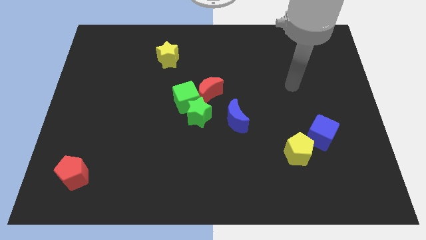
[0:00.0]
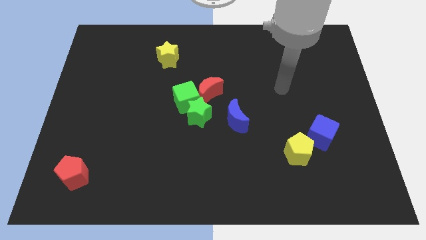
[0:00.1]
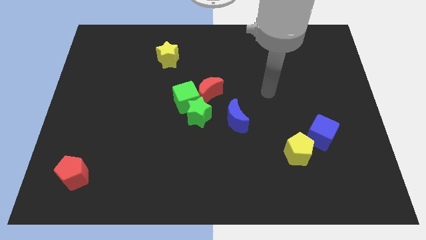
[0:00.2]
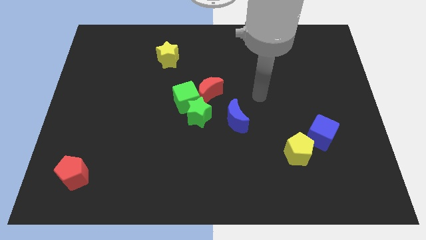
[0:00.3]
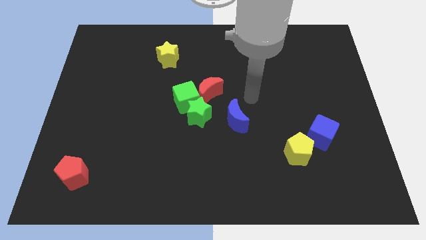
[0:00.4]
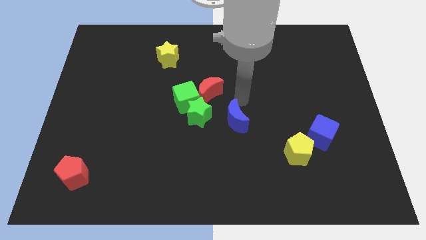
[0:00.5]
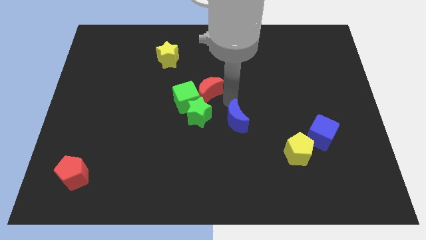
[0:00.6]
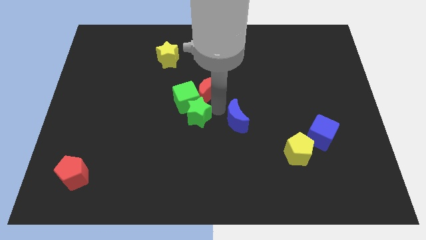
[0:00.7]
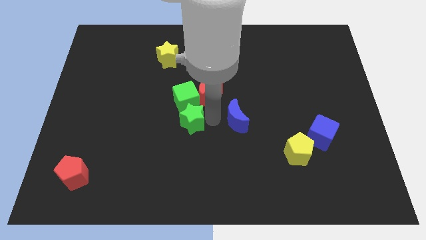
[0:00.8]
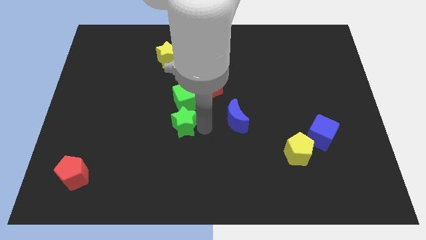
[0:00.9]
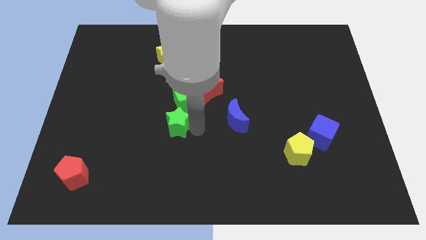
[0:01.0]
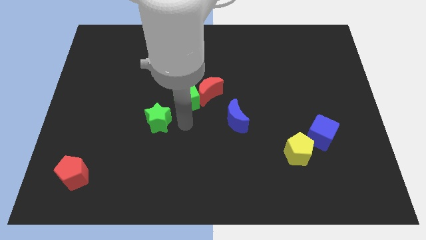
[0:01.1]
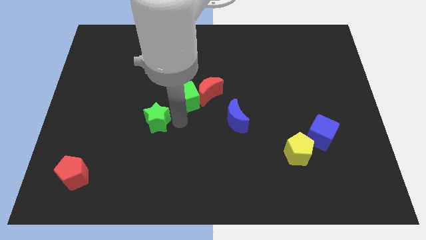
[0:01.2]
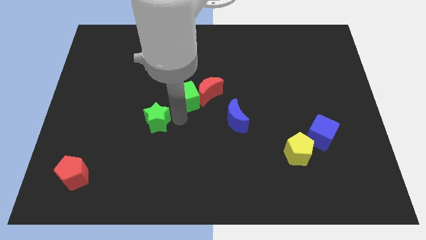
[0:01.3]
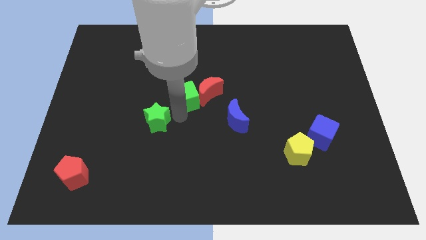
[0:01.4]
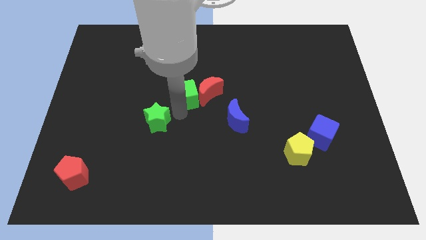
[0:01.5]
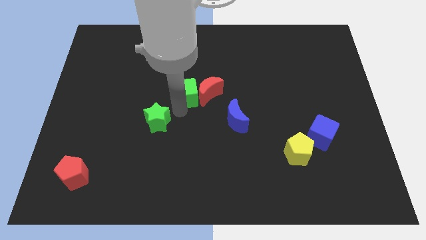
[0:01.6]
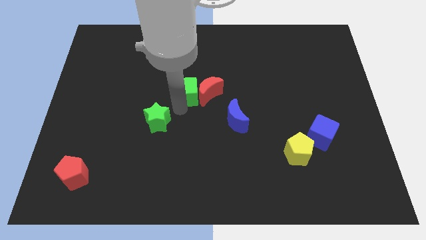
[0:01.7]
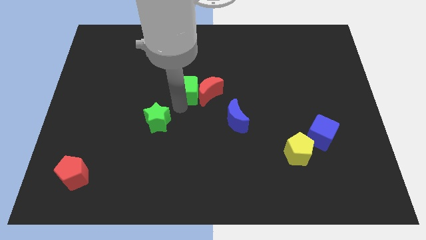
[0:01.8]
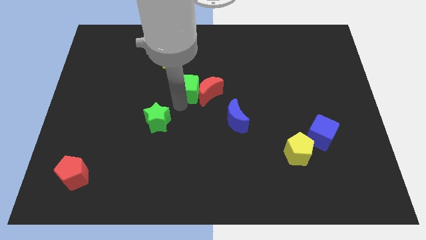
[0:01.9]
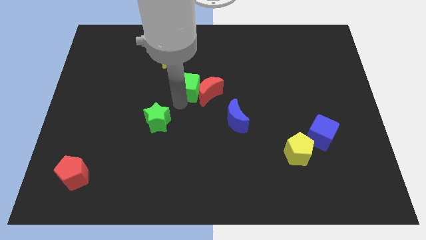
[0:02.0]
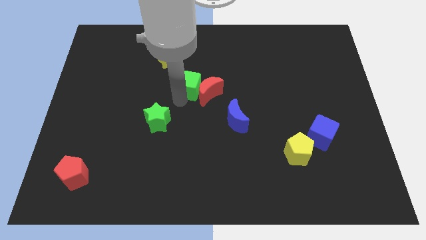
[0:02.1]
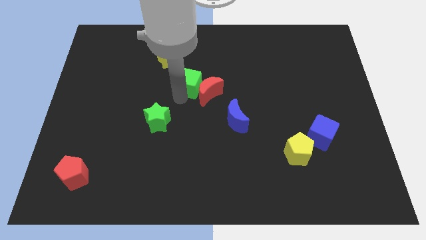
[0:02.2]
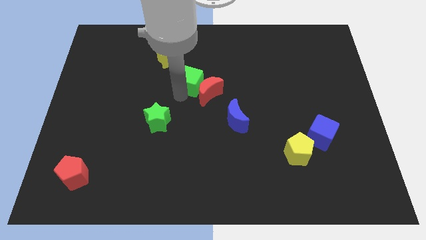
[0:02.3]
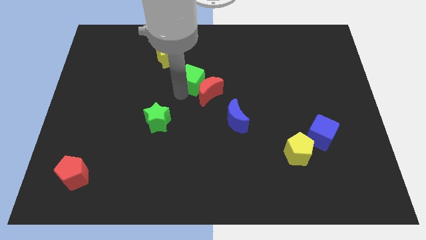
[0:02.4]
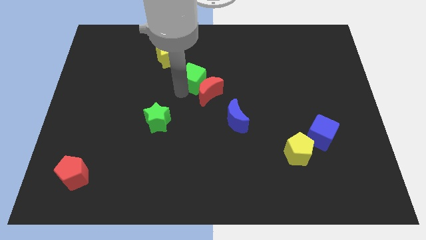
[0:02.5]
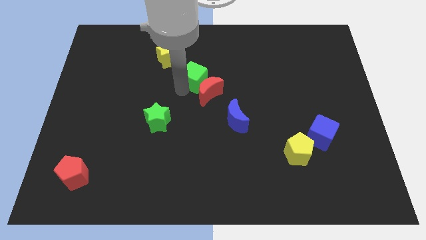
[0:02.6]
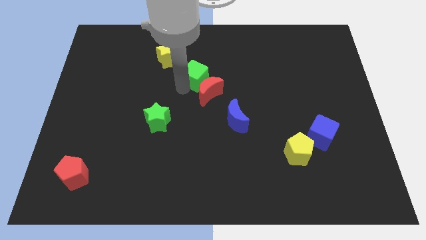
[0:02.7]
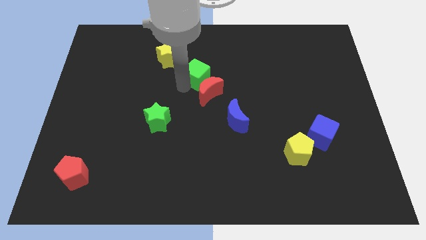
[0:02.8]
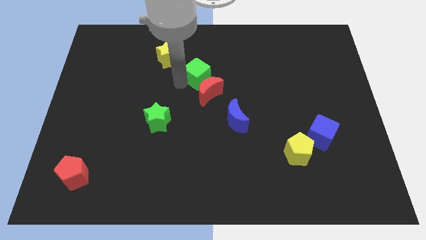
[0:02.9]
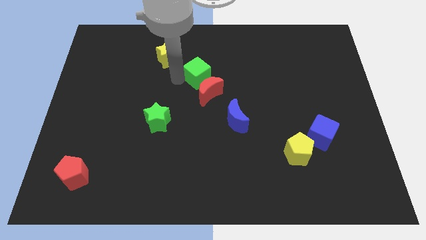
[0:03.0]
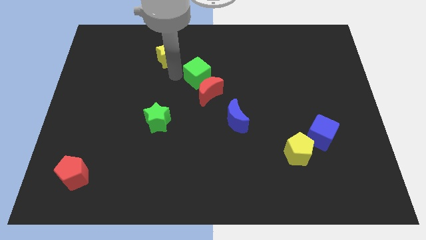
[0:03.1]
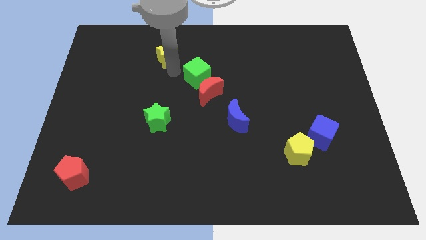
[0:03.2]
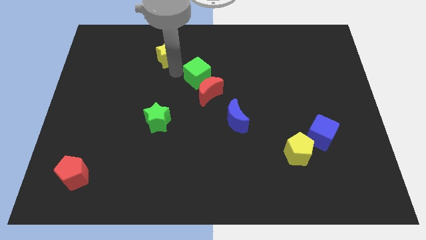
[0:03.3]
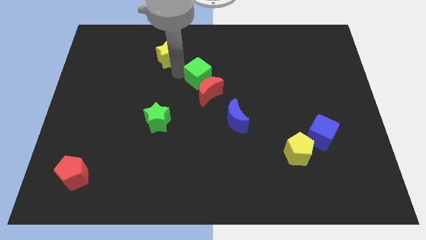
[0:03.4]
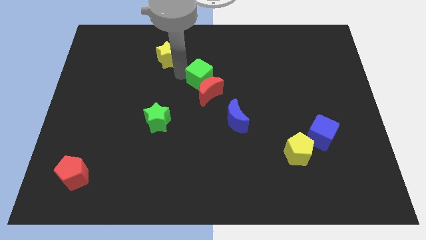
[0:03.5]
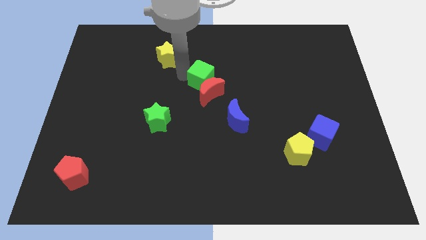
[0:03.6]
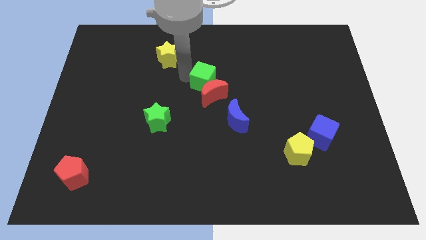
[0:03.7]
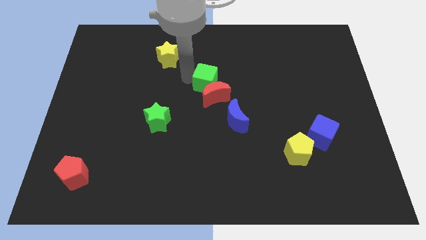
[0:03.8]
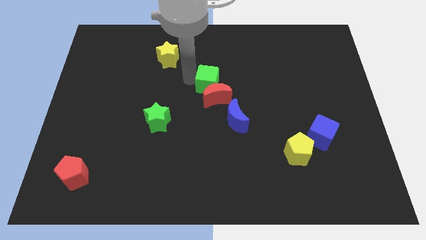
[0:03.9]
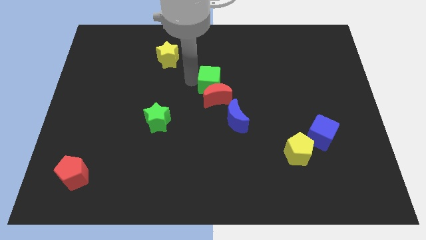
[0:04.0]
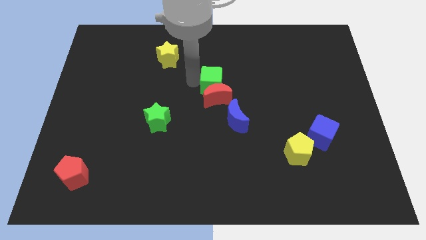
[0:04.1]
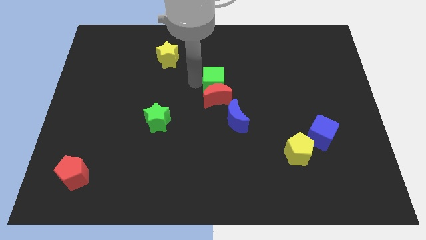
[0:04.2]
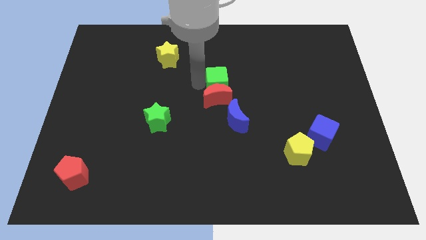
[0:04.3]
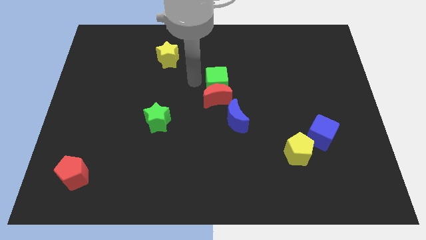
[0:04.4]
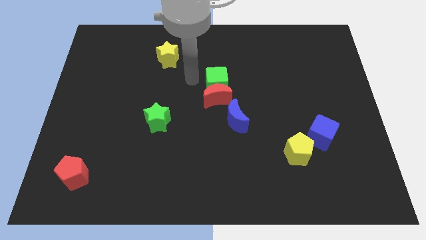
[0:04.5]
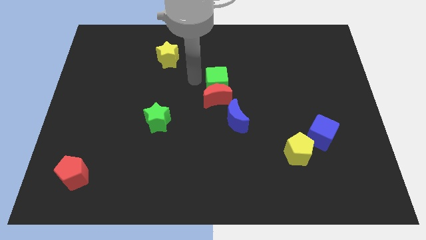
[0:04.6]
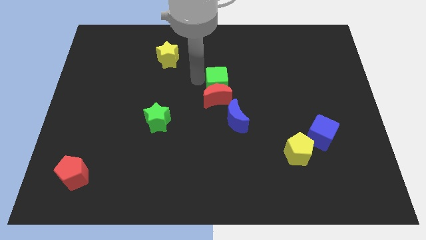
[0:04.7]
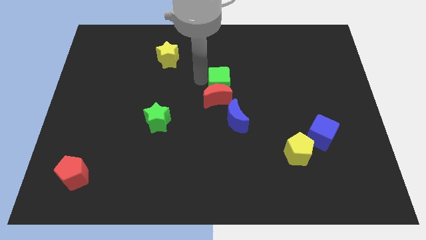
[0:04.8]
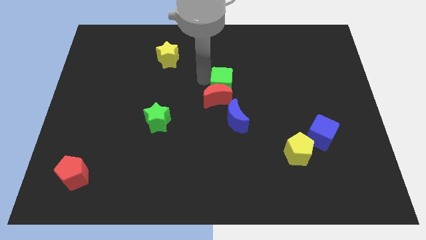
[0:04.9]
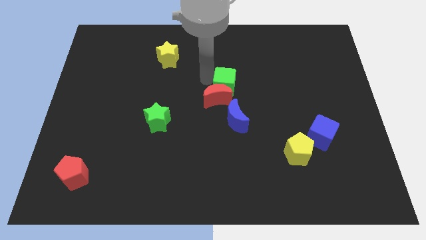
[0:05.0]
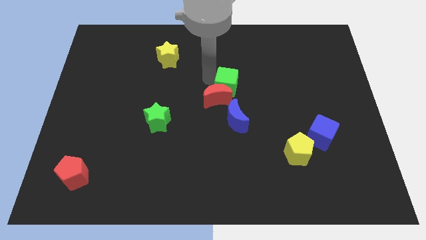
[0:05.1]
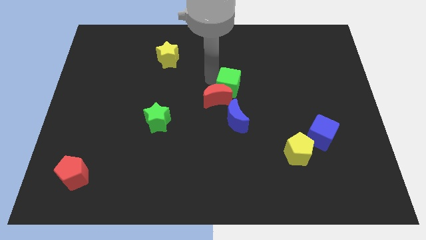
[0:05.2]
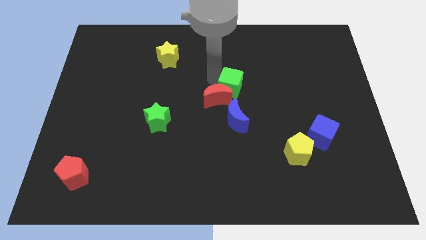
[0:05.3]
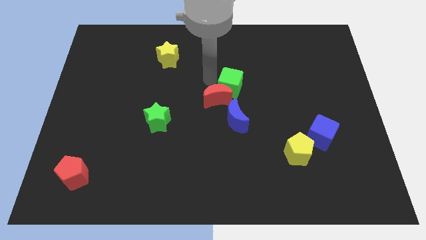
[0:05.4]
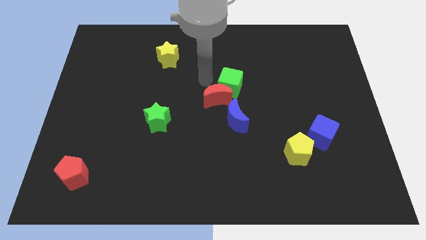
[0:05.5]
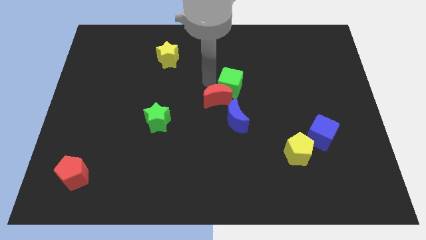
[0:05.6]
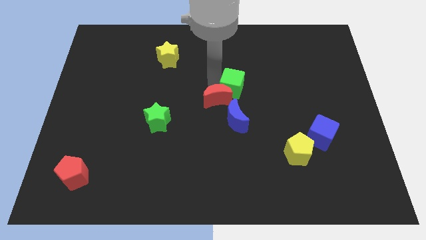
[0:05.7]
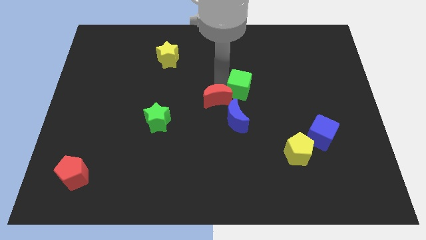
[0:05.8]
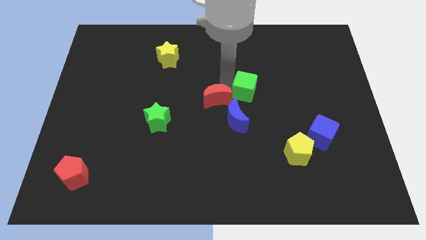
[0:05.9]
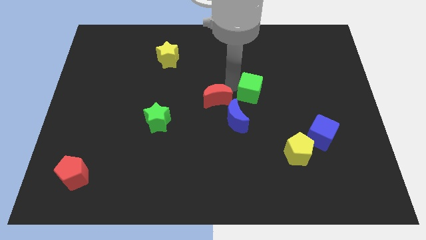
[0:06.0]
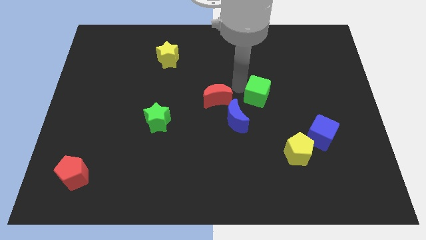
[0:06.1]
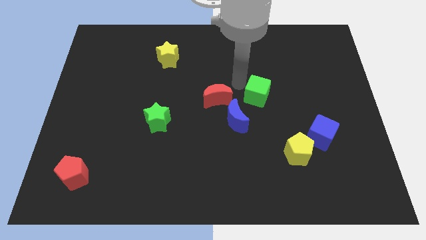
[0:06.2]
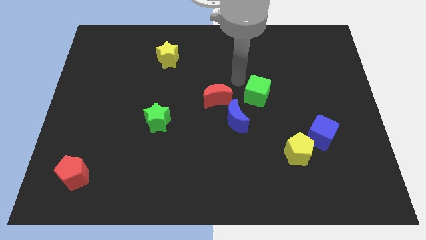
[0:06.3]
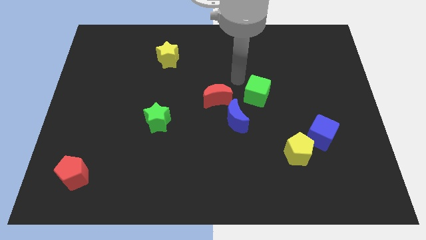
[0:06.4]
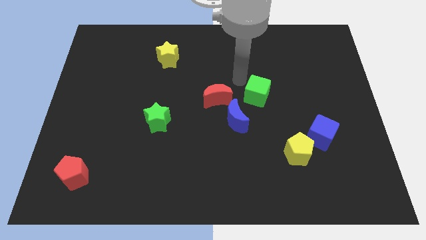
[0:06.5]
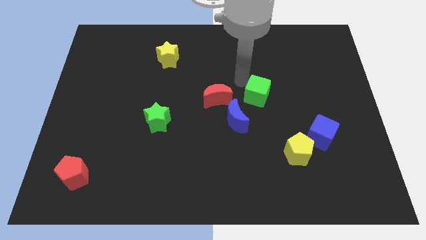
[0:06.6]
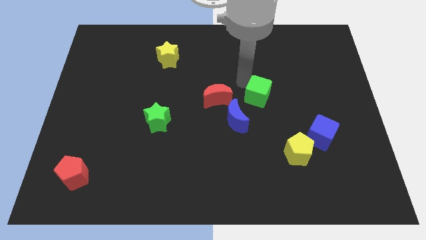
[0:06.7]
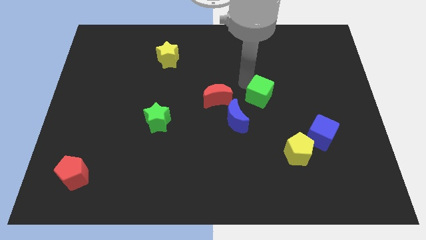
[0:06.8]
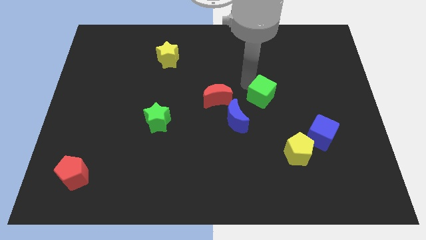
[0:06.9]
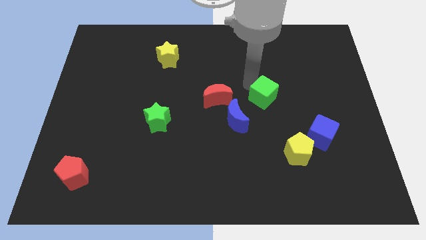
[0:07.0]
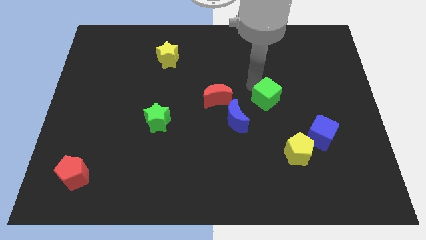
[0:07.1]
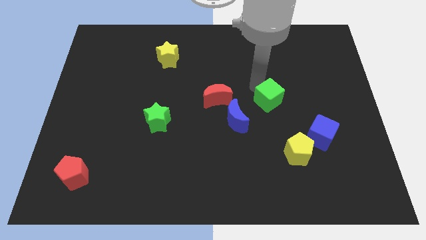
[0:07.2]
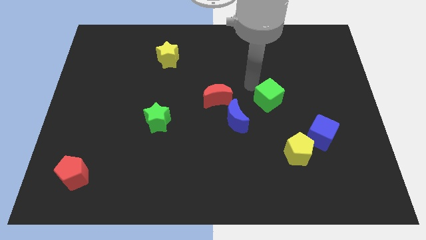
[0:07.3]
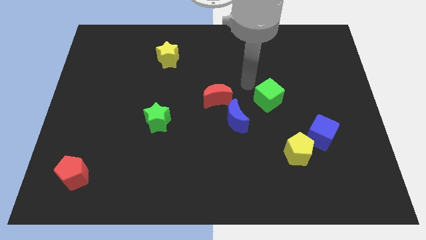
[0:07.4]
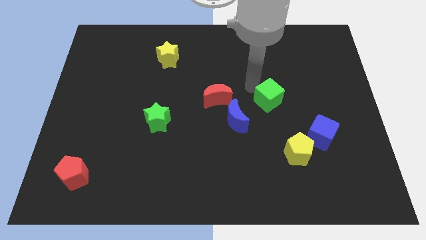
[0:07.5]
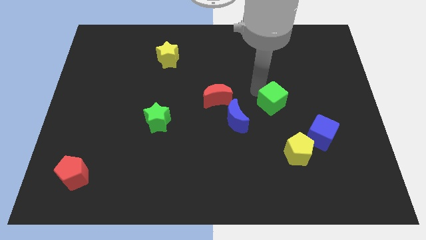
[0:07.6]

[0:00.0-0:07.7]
put the green cube to the top of the yellow pentagon
